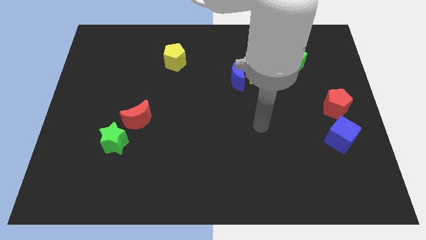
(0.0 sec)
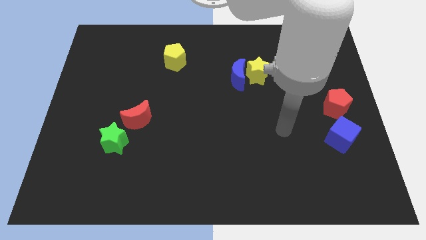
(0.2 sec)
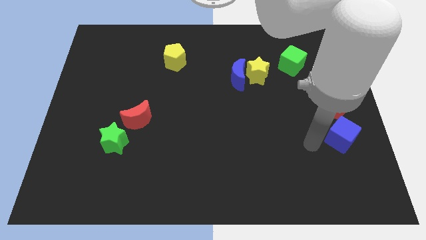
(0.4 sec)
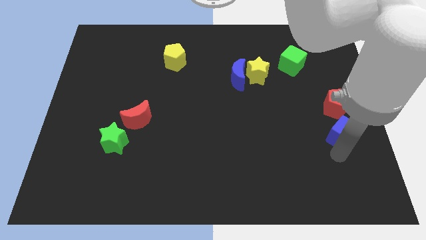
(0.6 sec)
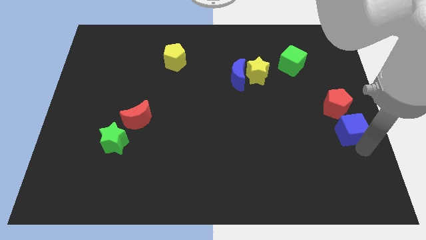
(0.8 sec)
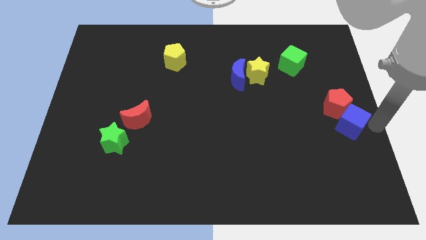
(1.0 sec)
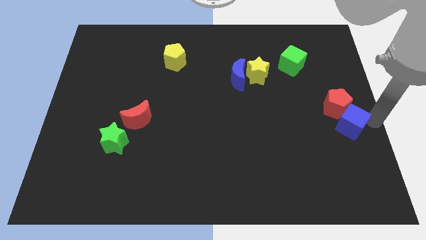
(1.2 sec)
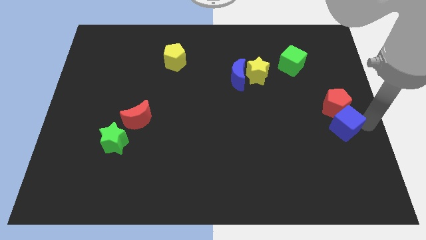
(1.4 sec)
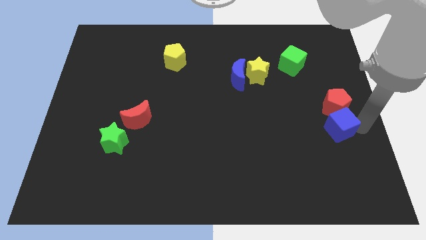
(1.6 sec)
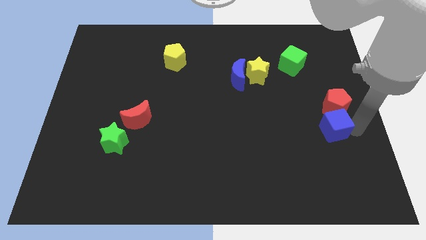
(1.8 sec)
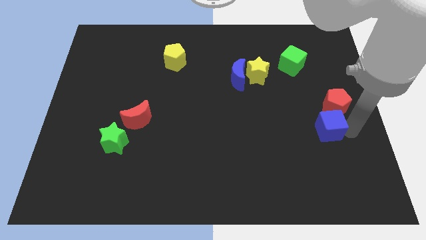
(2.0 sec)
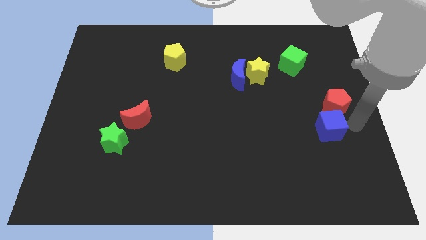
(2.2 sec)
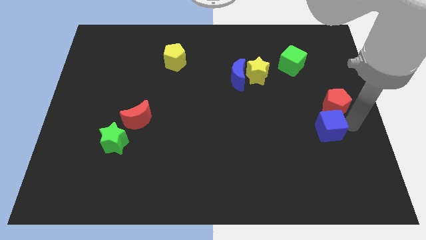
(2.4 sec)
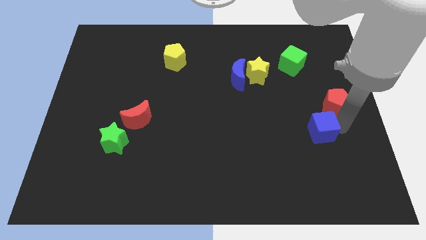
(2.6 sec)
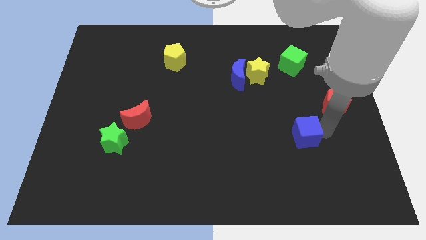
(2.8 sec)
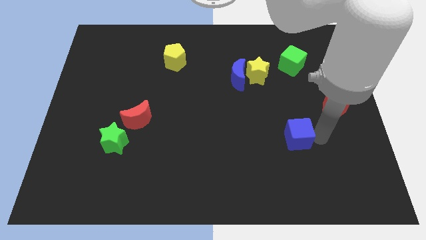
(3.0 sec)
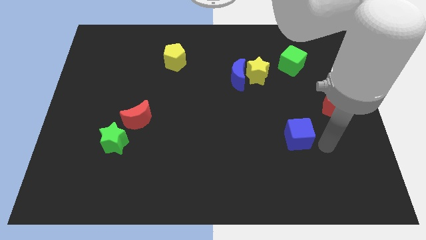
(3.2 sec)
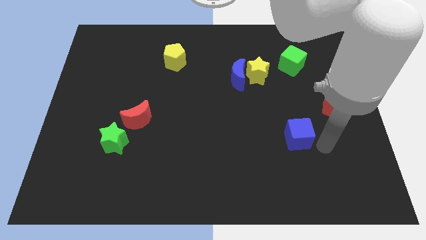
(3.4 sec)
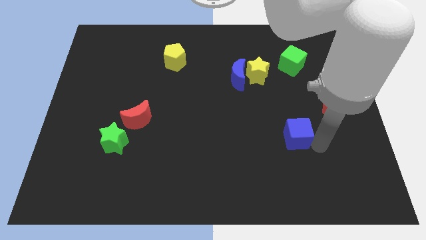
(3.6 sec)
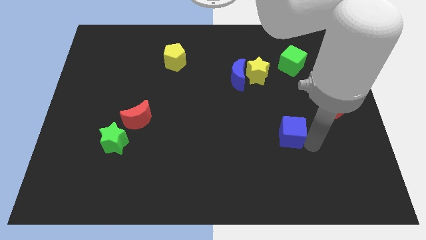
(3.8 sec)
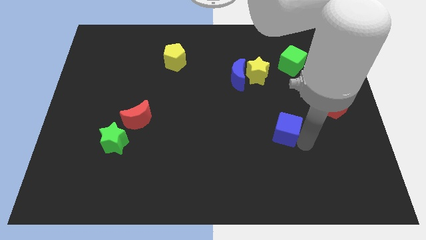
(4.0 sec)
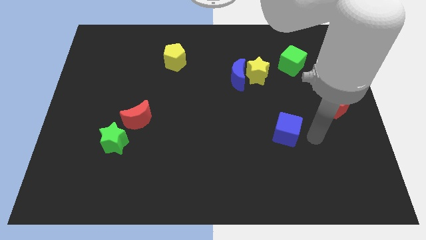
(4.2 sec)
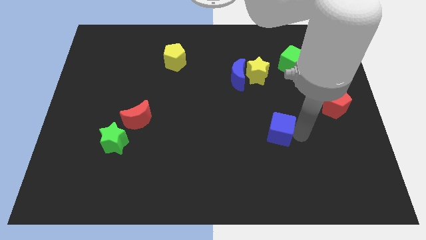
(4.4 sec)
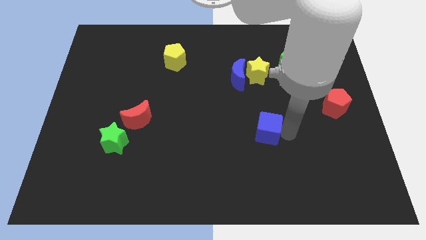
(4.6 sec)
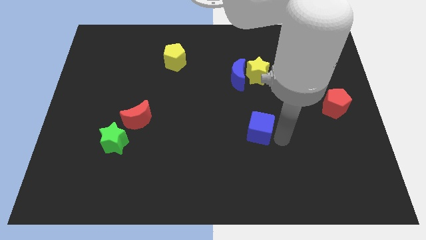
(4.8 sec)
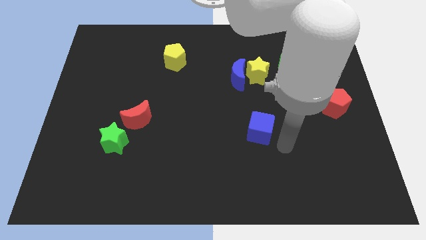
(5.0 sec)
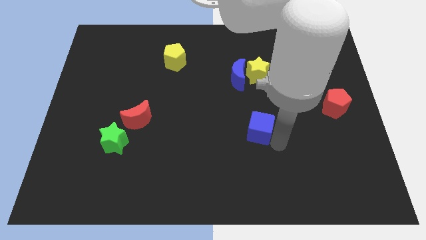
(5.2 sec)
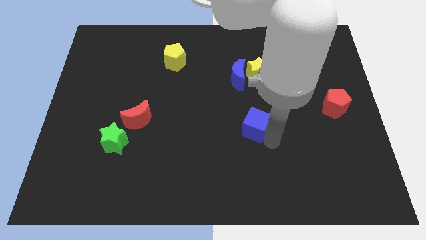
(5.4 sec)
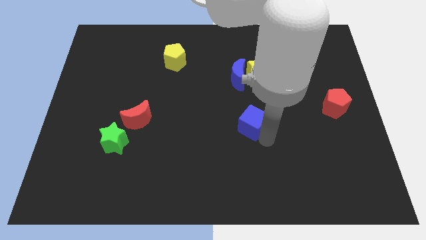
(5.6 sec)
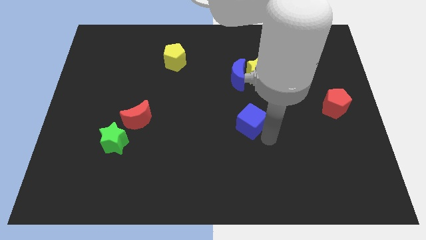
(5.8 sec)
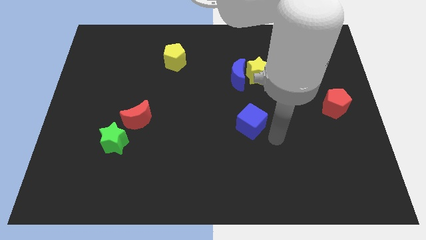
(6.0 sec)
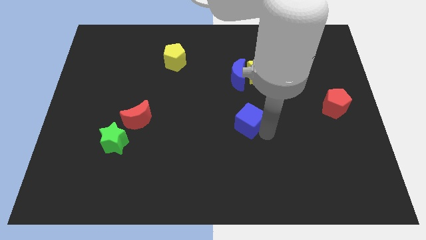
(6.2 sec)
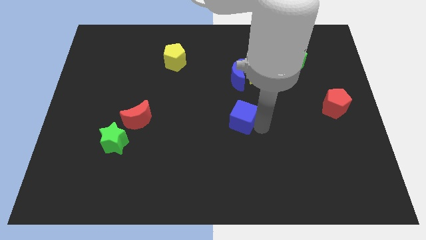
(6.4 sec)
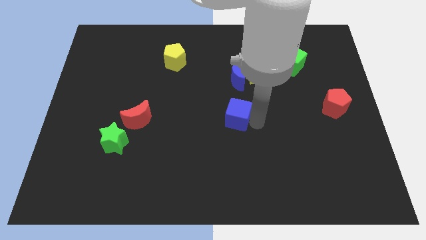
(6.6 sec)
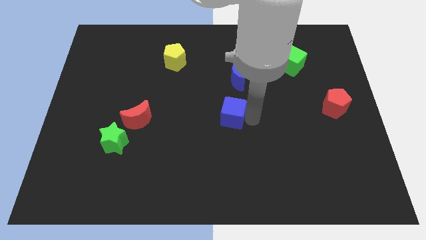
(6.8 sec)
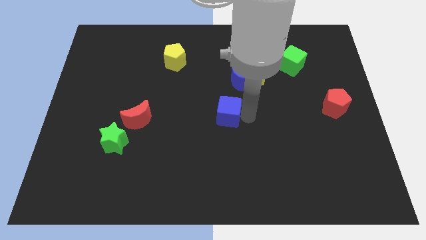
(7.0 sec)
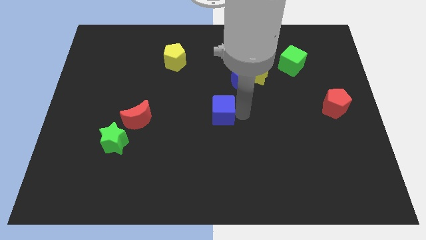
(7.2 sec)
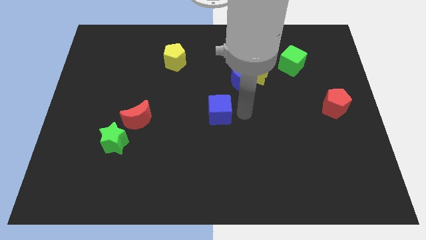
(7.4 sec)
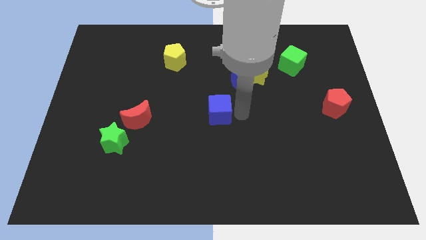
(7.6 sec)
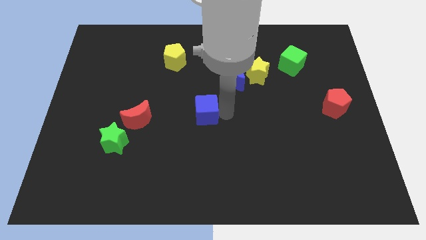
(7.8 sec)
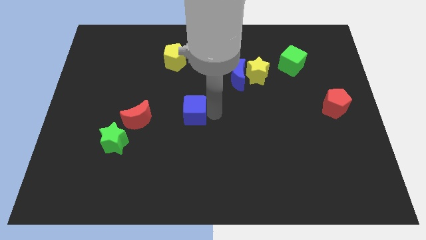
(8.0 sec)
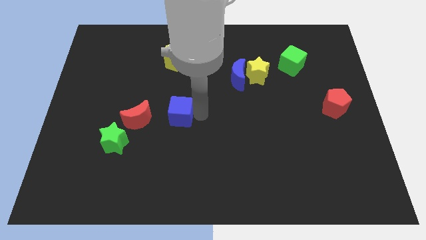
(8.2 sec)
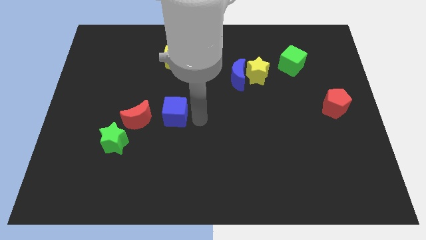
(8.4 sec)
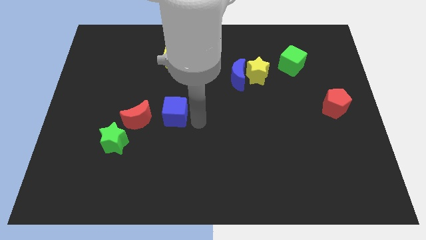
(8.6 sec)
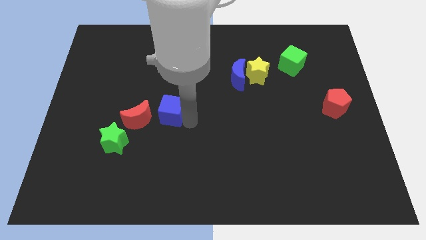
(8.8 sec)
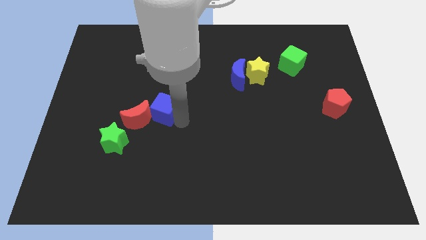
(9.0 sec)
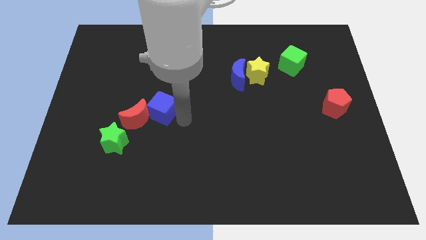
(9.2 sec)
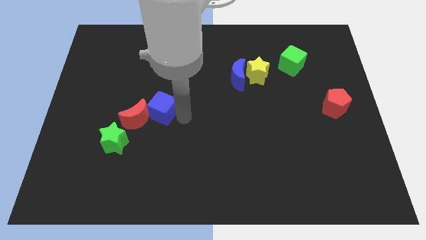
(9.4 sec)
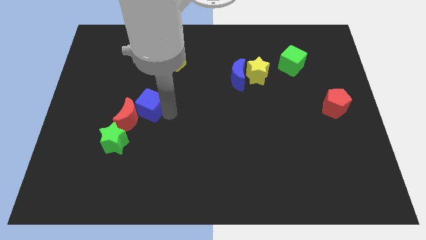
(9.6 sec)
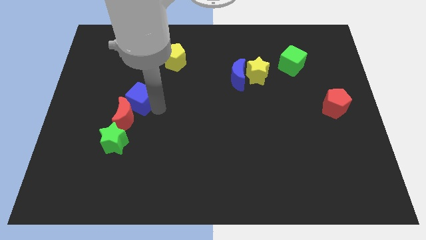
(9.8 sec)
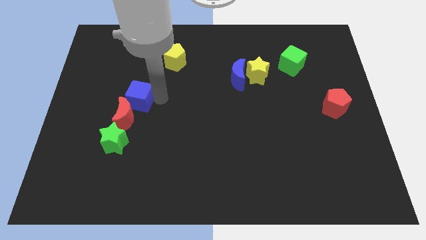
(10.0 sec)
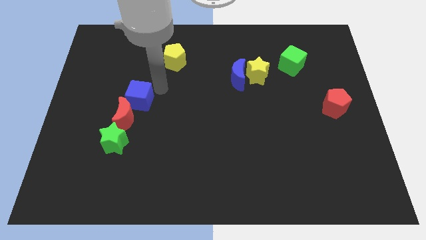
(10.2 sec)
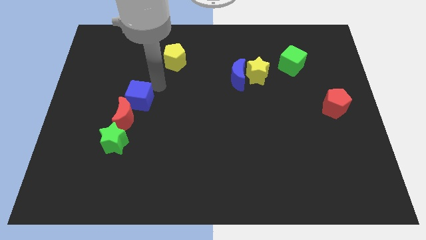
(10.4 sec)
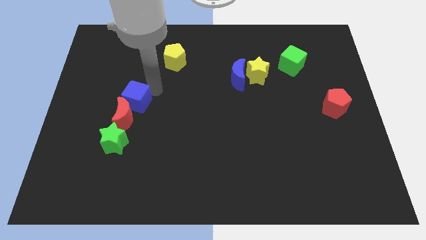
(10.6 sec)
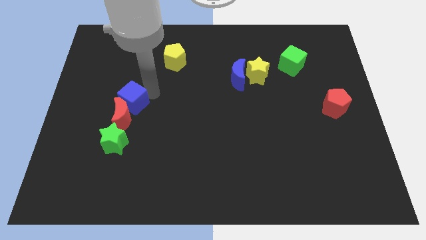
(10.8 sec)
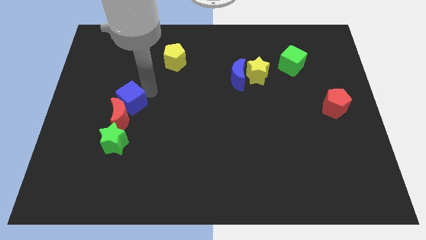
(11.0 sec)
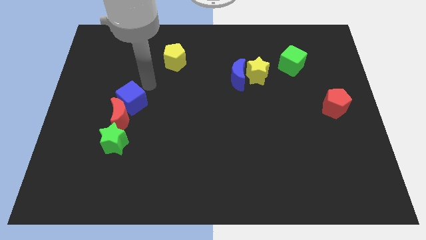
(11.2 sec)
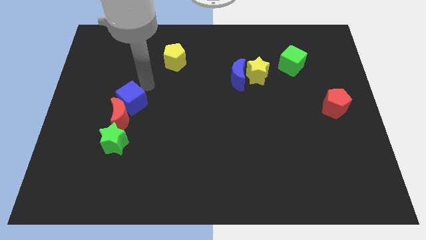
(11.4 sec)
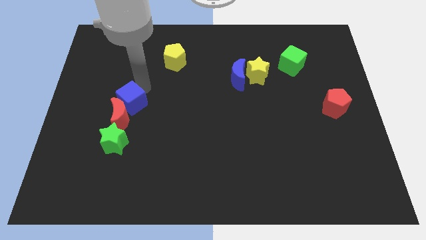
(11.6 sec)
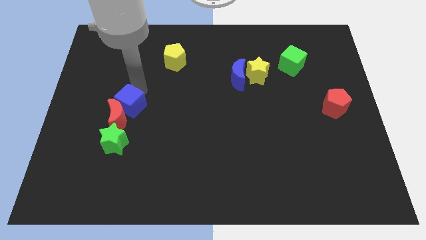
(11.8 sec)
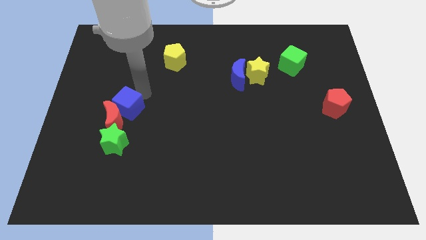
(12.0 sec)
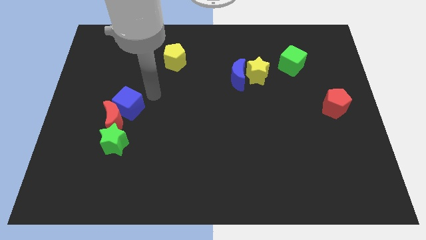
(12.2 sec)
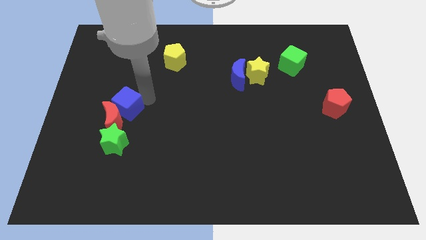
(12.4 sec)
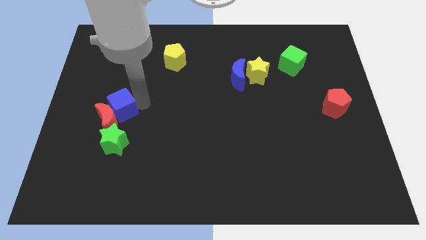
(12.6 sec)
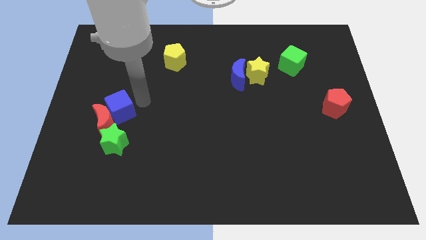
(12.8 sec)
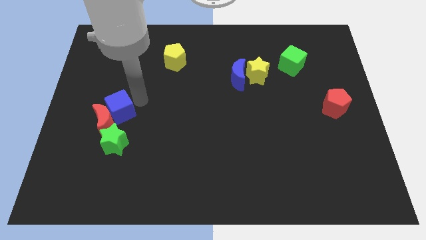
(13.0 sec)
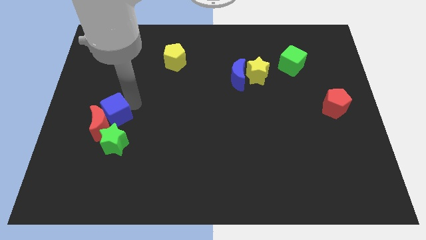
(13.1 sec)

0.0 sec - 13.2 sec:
push the blue cube diagonally up and to the left of the green star
